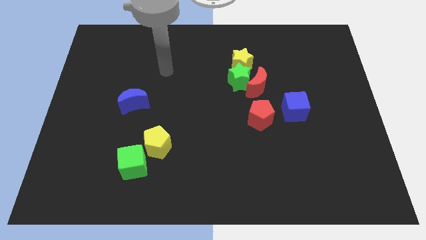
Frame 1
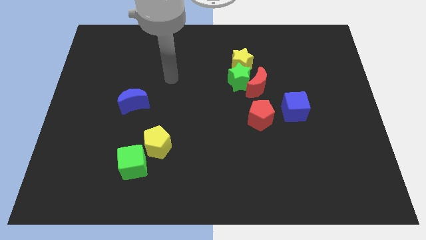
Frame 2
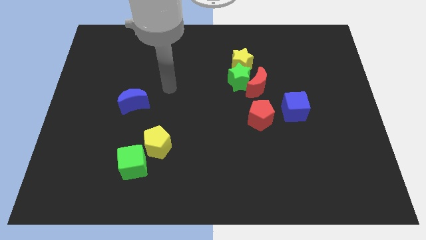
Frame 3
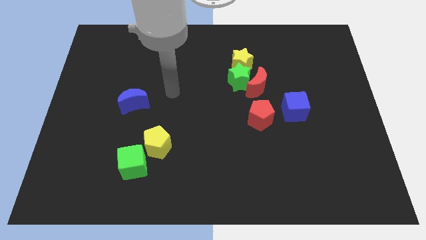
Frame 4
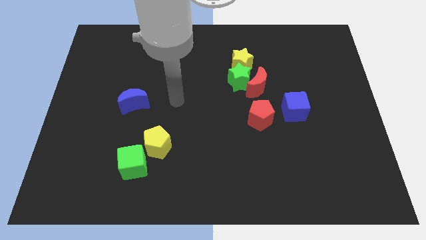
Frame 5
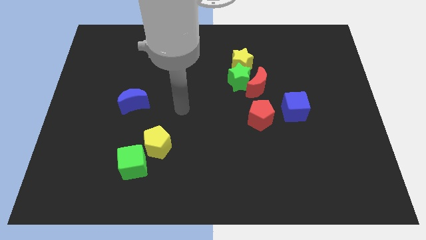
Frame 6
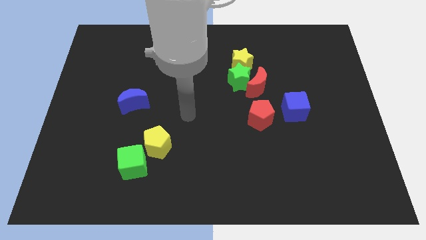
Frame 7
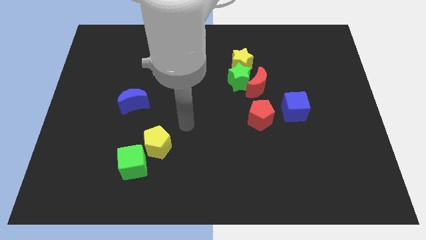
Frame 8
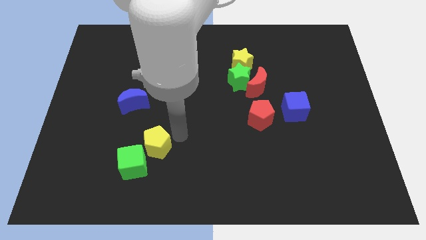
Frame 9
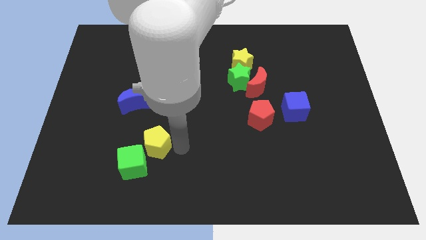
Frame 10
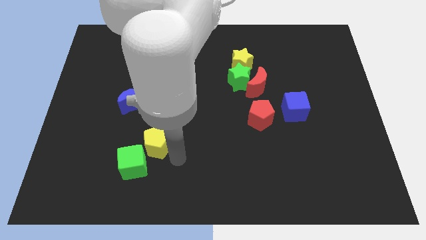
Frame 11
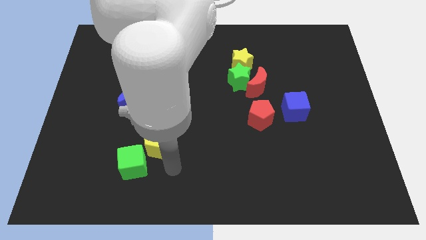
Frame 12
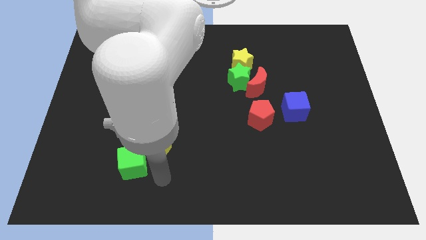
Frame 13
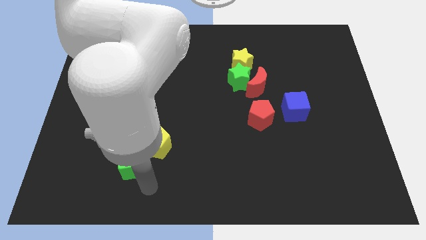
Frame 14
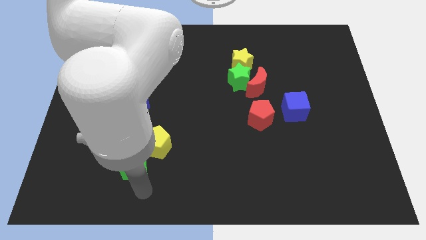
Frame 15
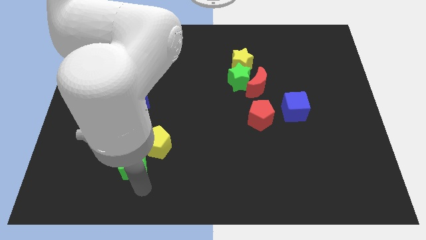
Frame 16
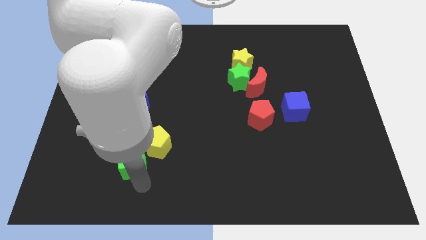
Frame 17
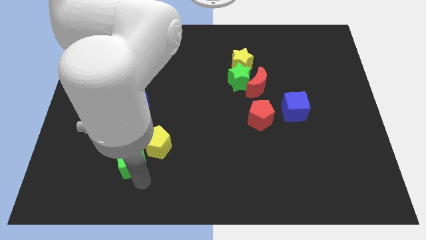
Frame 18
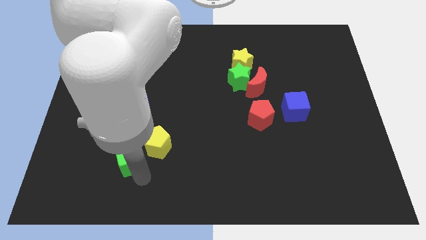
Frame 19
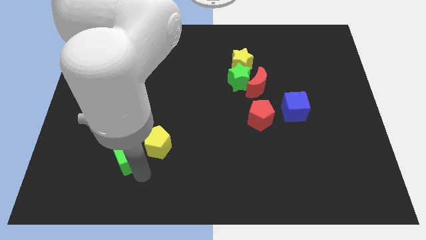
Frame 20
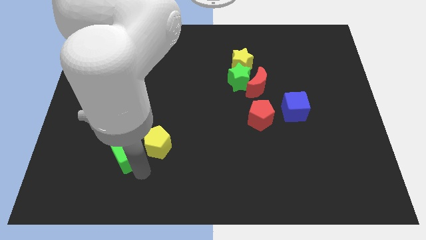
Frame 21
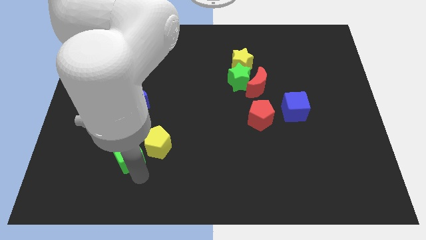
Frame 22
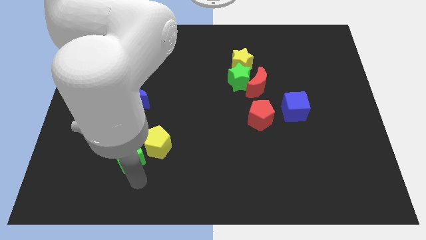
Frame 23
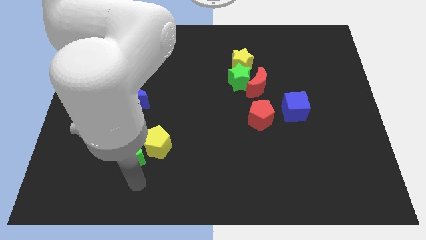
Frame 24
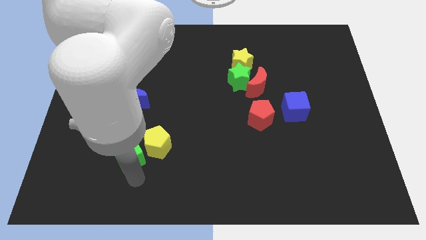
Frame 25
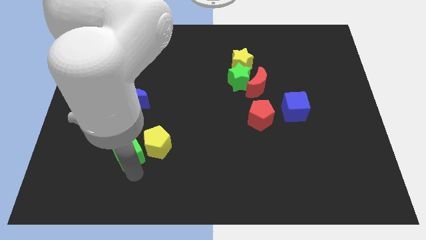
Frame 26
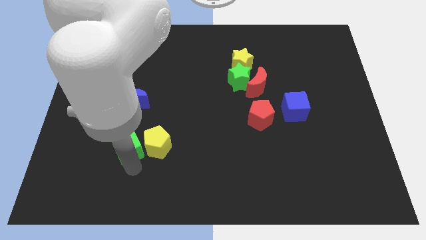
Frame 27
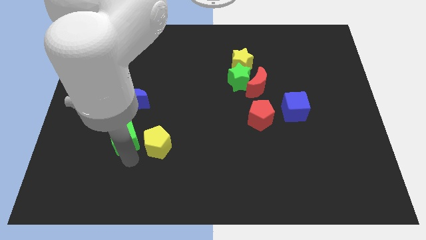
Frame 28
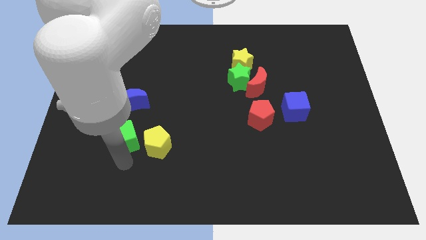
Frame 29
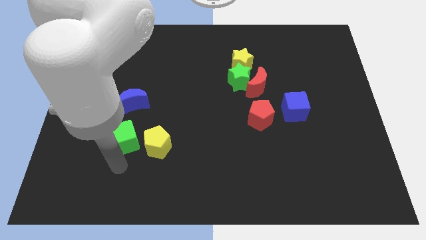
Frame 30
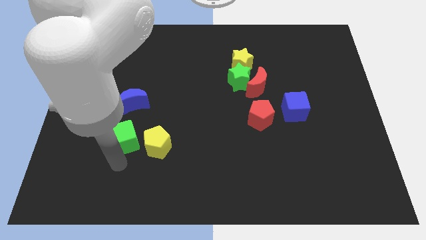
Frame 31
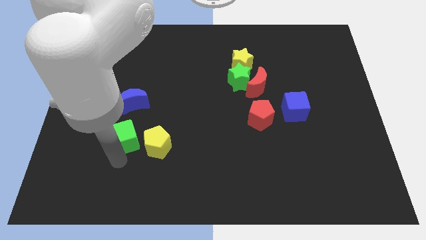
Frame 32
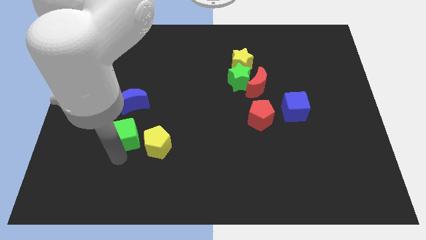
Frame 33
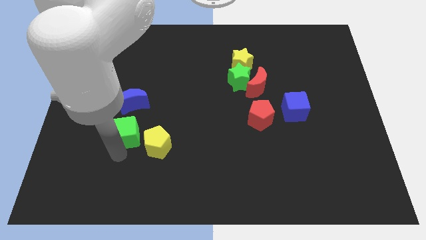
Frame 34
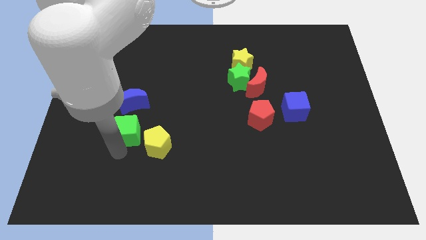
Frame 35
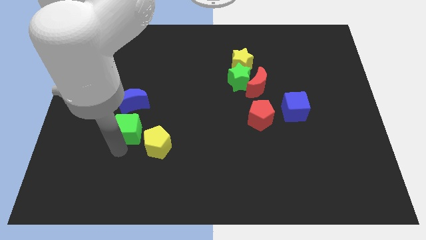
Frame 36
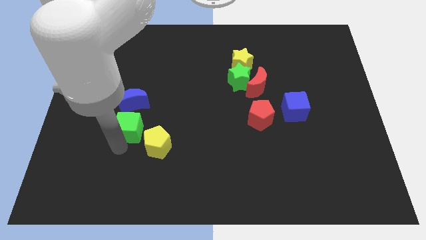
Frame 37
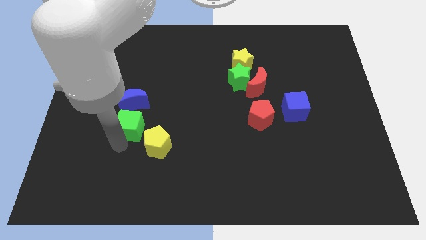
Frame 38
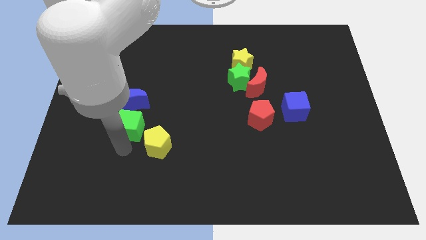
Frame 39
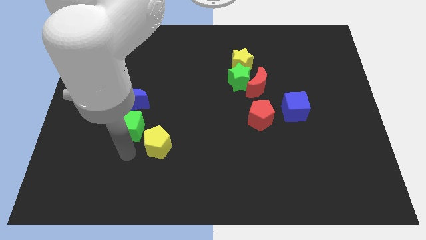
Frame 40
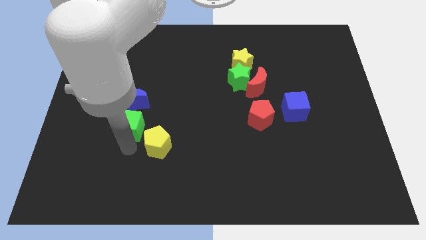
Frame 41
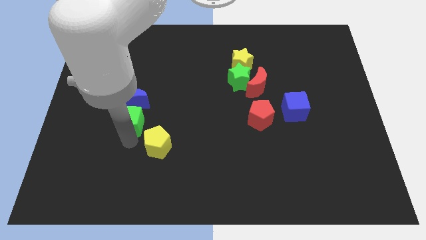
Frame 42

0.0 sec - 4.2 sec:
move the green cube next to the blue moon

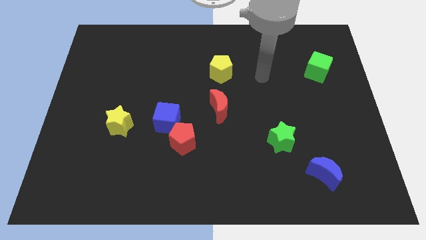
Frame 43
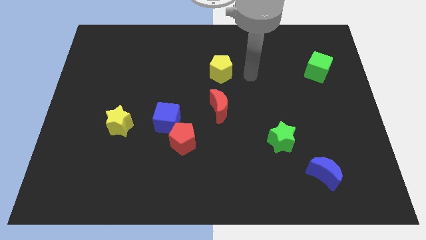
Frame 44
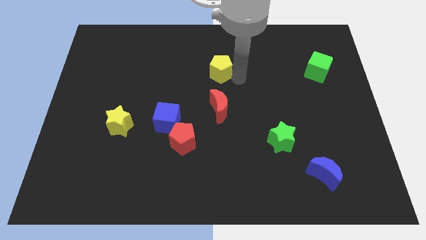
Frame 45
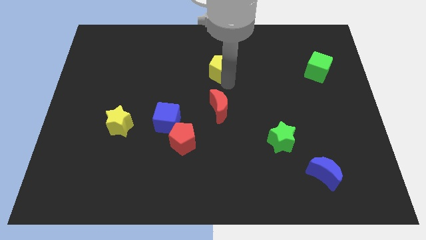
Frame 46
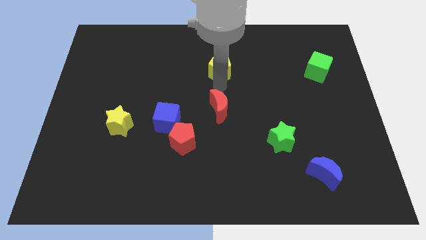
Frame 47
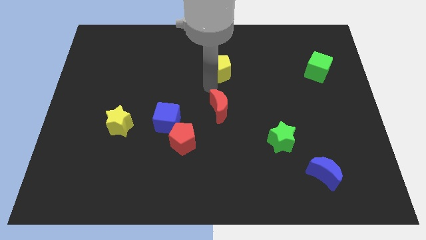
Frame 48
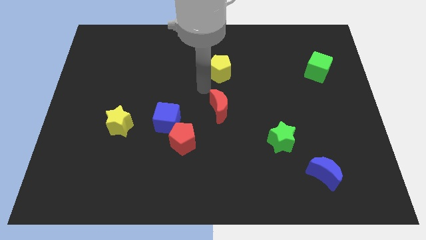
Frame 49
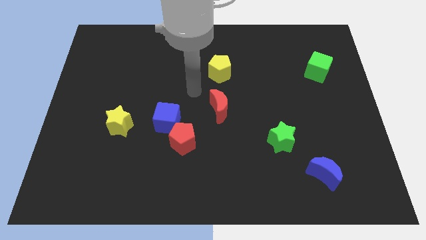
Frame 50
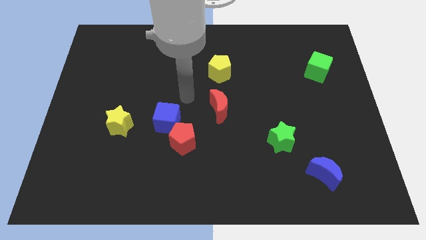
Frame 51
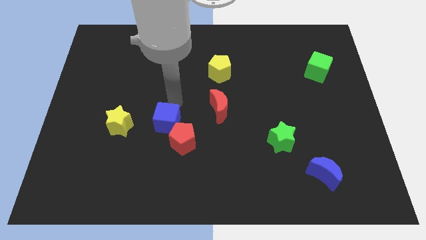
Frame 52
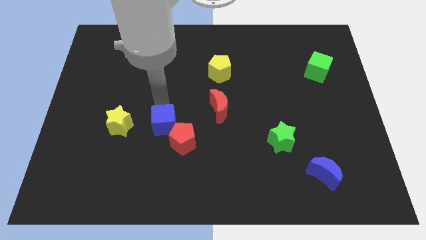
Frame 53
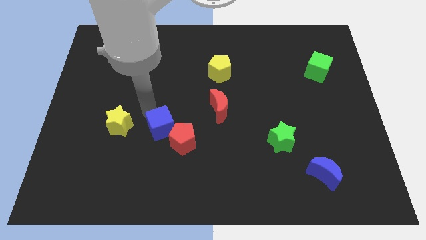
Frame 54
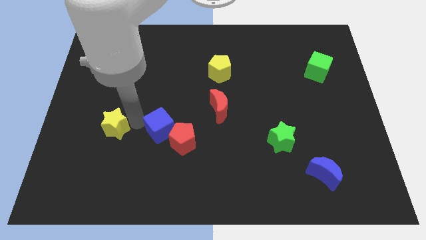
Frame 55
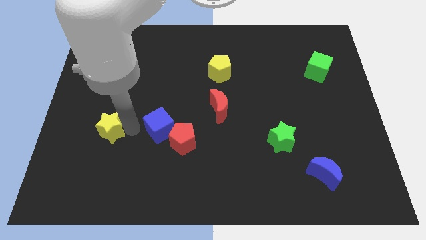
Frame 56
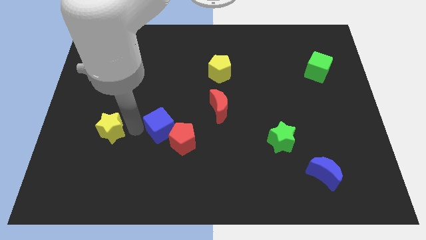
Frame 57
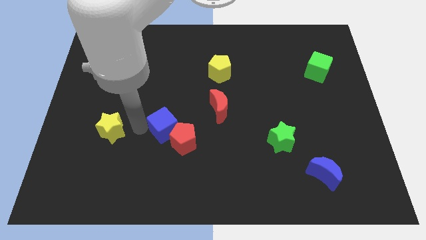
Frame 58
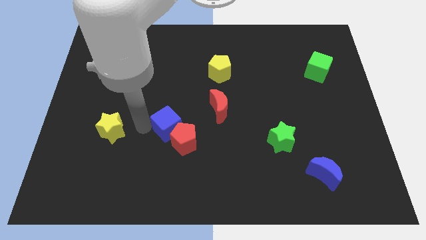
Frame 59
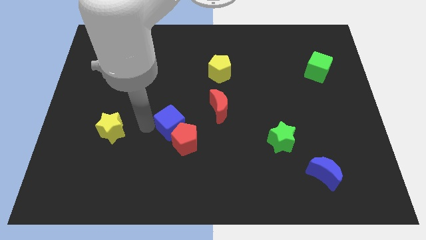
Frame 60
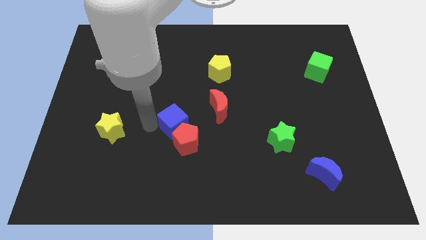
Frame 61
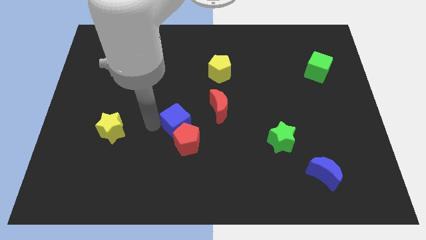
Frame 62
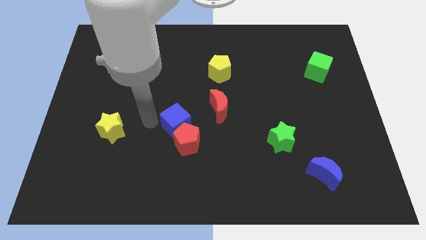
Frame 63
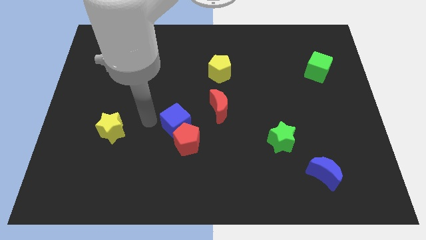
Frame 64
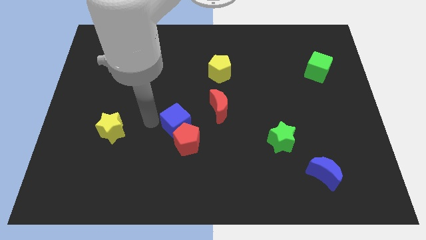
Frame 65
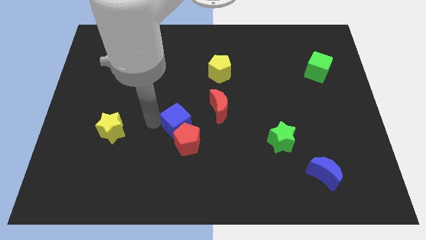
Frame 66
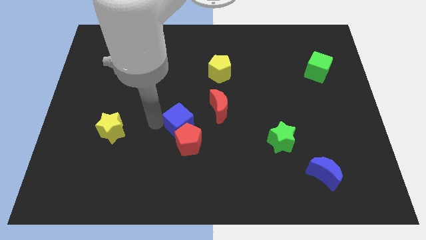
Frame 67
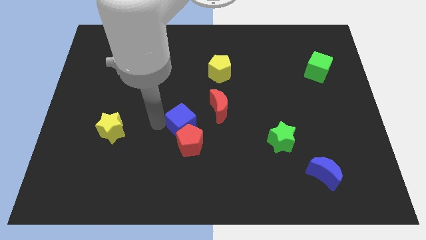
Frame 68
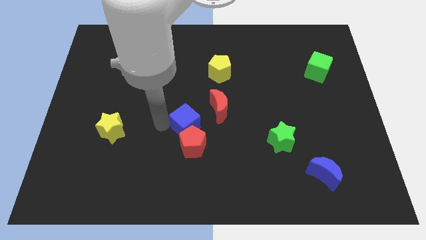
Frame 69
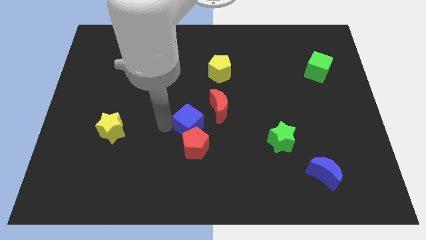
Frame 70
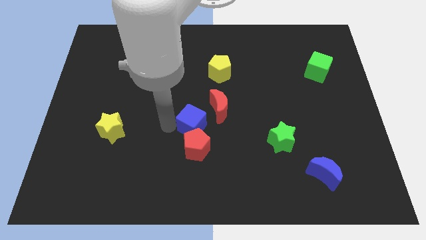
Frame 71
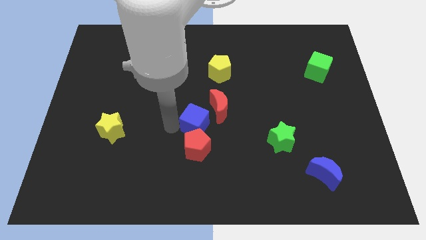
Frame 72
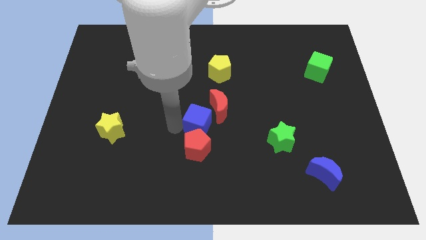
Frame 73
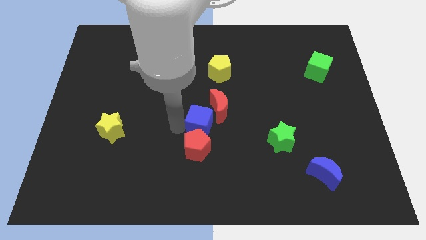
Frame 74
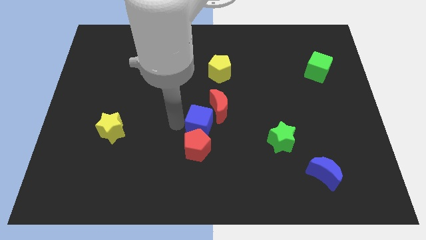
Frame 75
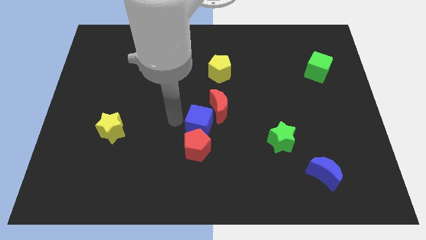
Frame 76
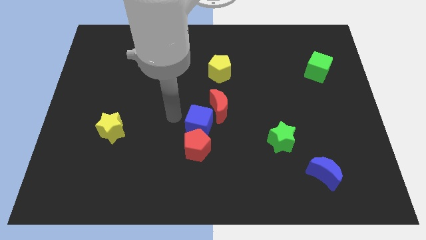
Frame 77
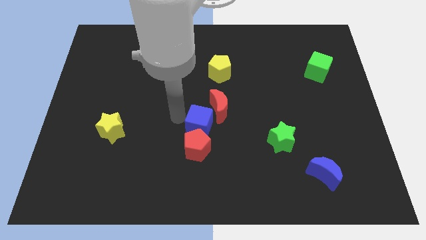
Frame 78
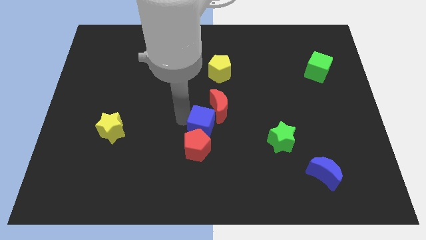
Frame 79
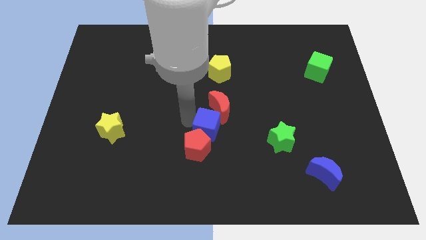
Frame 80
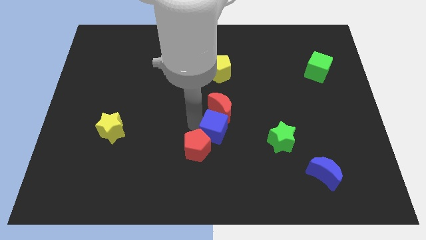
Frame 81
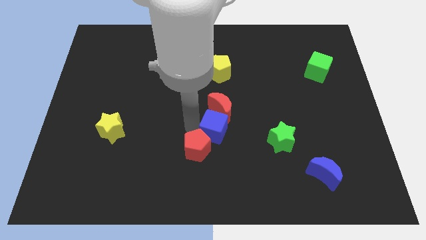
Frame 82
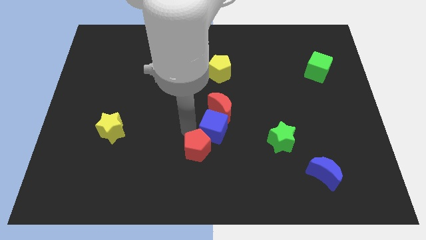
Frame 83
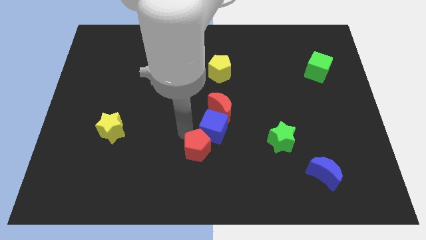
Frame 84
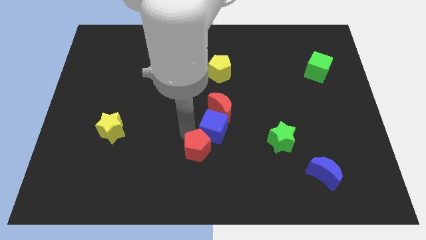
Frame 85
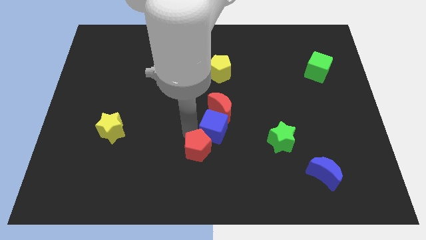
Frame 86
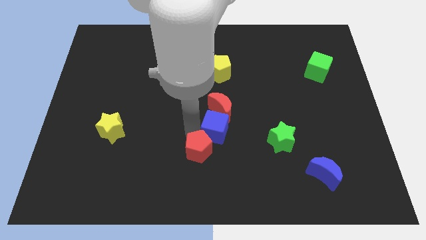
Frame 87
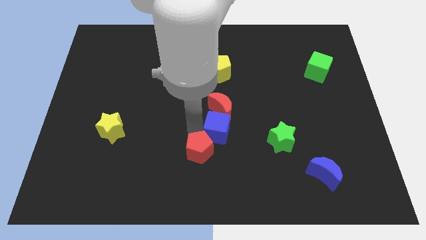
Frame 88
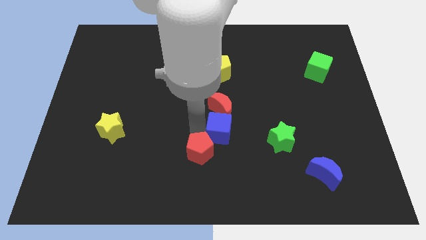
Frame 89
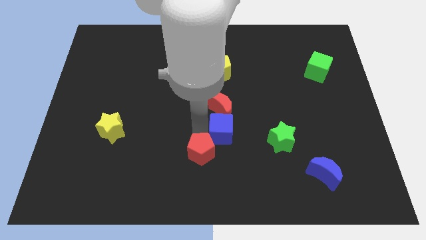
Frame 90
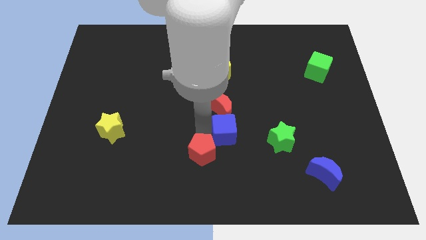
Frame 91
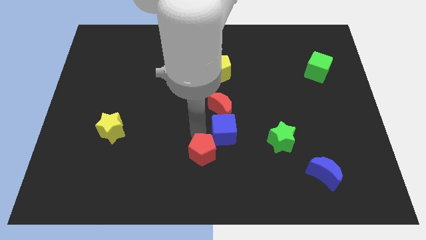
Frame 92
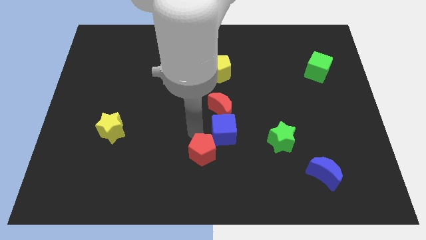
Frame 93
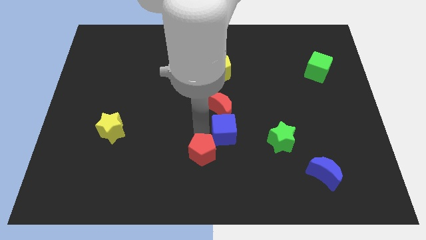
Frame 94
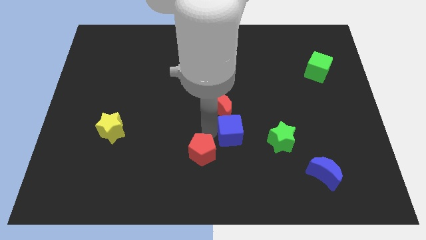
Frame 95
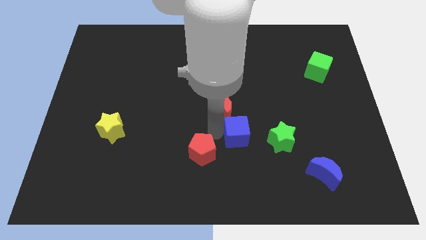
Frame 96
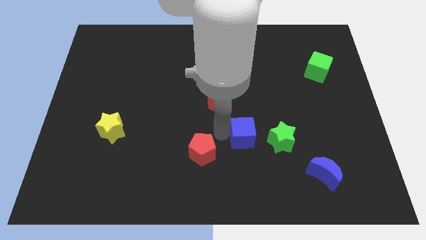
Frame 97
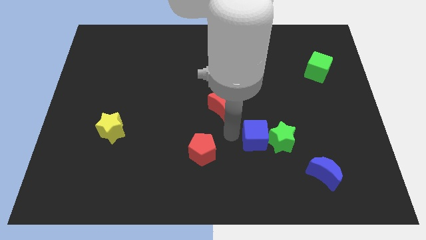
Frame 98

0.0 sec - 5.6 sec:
slide the blue cube towards the green star
